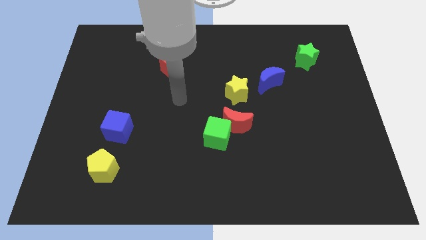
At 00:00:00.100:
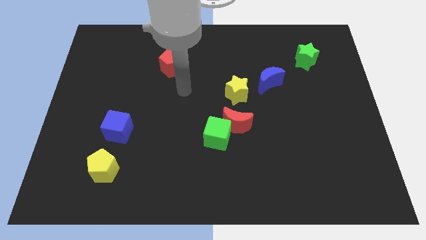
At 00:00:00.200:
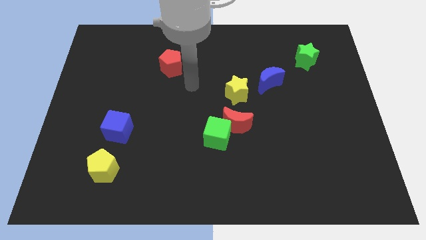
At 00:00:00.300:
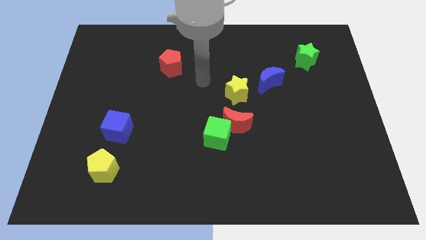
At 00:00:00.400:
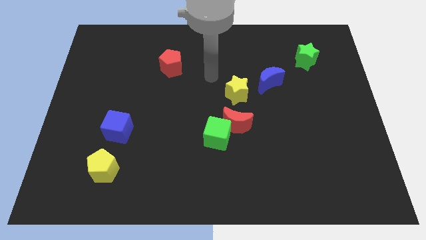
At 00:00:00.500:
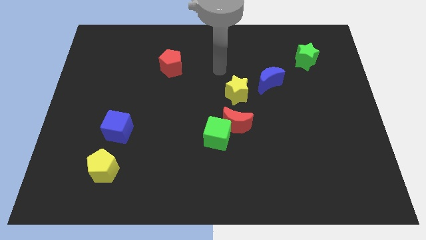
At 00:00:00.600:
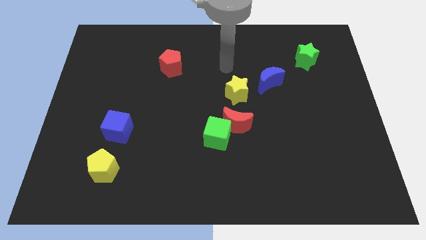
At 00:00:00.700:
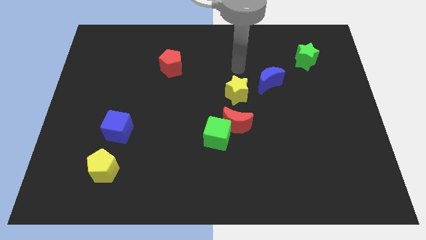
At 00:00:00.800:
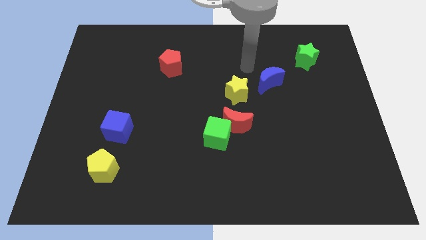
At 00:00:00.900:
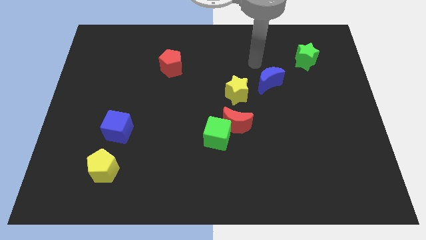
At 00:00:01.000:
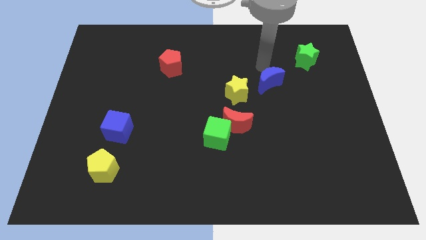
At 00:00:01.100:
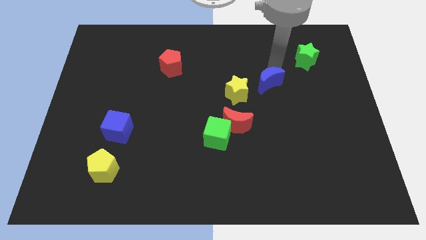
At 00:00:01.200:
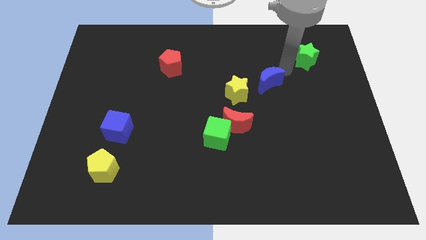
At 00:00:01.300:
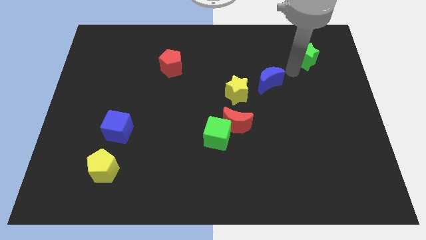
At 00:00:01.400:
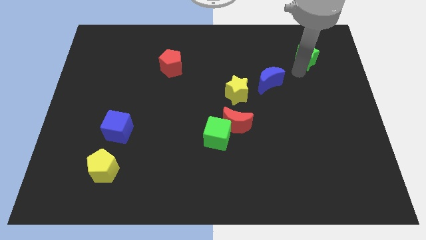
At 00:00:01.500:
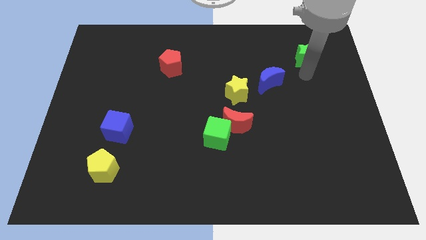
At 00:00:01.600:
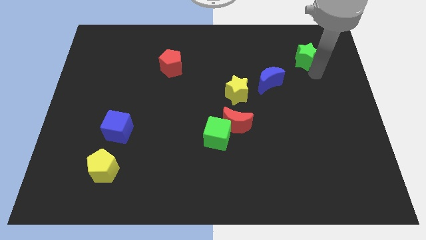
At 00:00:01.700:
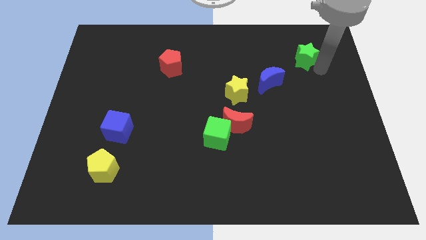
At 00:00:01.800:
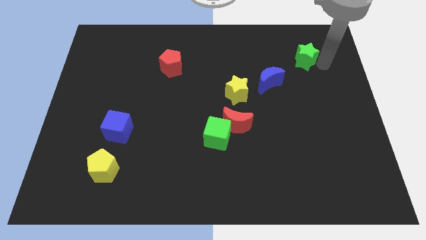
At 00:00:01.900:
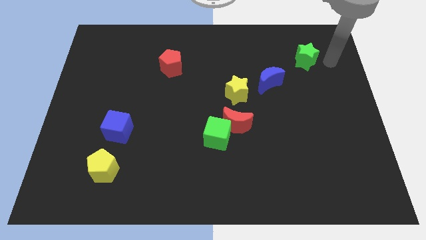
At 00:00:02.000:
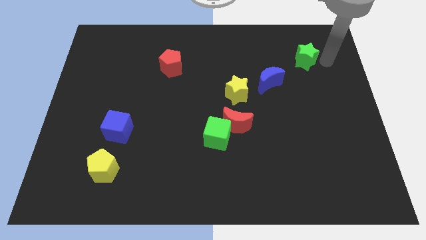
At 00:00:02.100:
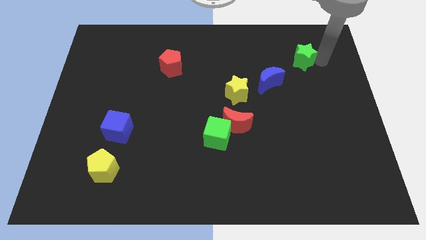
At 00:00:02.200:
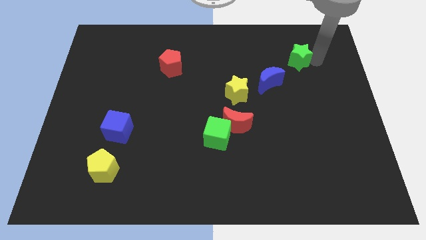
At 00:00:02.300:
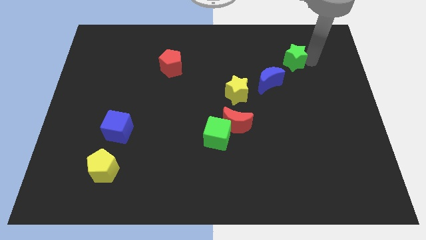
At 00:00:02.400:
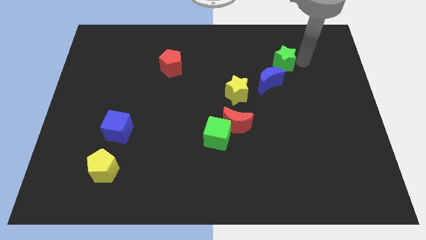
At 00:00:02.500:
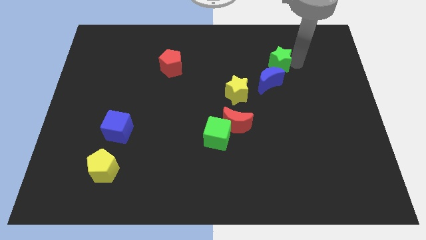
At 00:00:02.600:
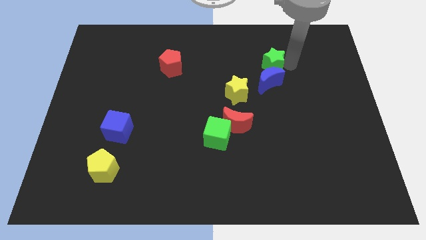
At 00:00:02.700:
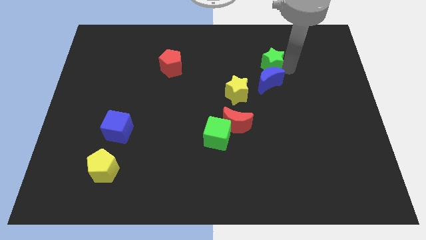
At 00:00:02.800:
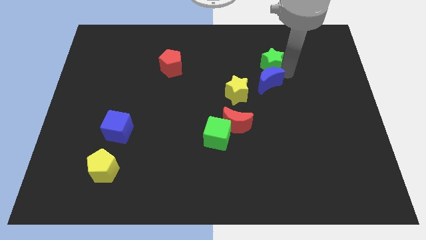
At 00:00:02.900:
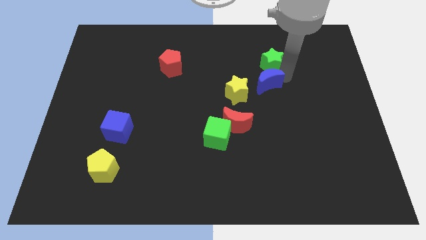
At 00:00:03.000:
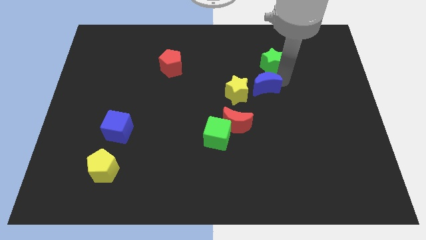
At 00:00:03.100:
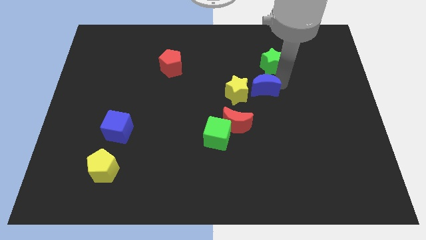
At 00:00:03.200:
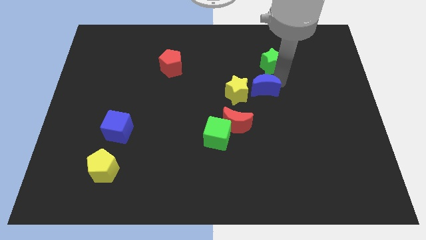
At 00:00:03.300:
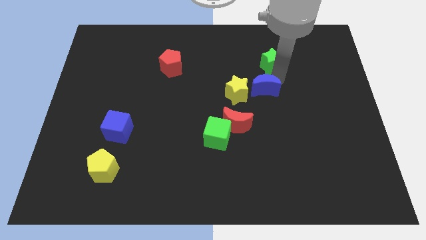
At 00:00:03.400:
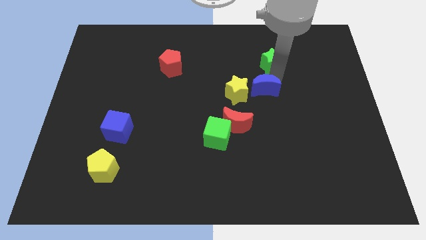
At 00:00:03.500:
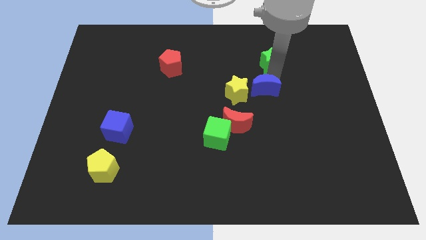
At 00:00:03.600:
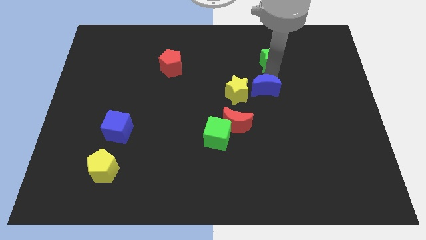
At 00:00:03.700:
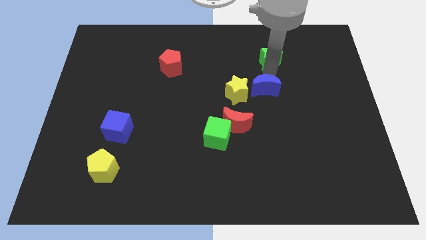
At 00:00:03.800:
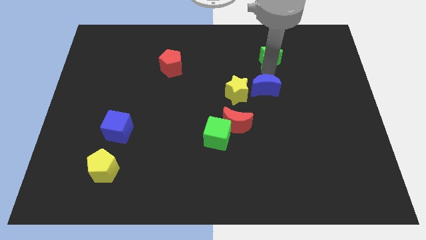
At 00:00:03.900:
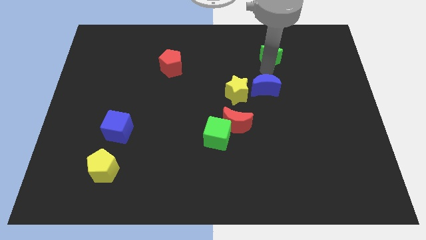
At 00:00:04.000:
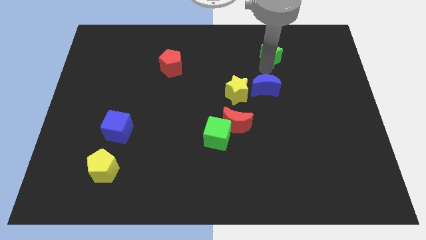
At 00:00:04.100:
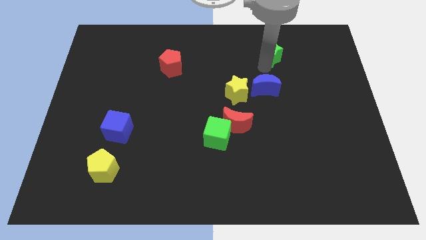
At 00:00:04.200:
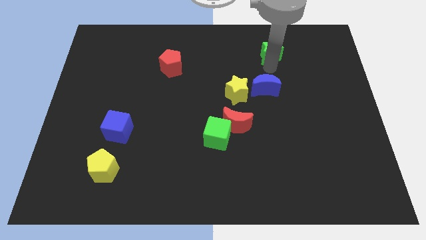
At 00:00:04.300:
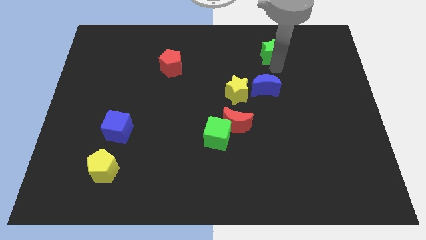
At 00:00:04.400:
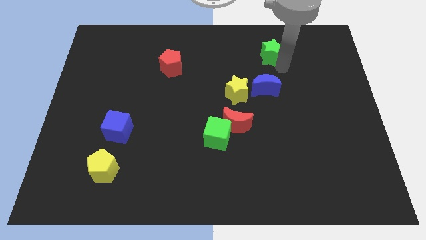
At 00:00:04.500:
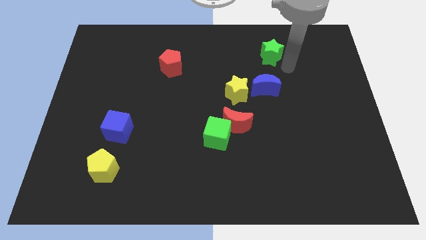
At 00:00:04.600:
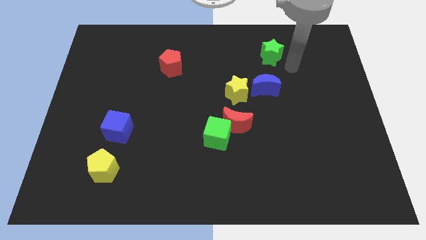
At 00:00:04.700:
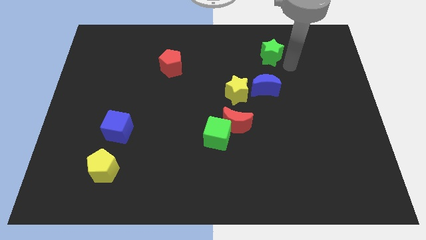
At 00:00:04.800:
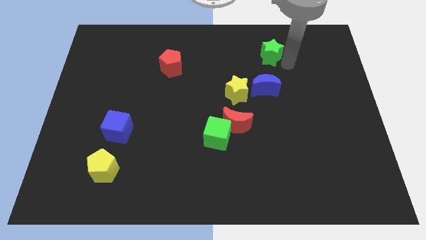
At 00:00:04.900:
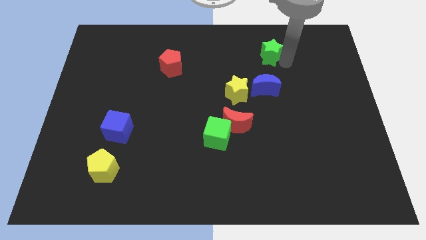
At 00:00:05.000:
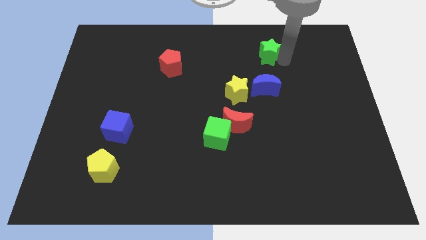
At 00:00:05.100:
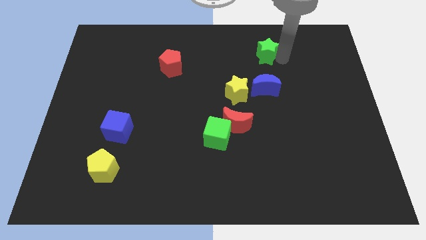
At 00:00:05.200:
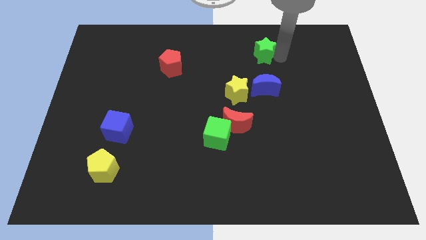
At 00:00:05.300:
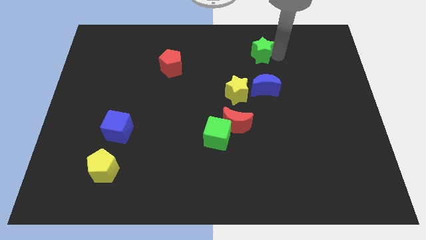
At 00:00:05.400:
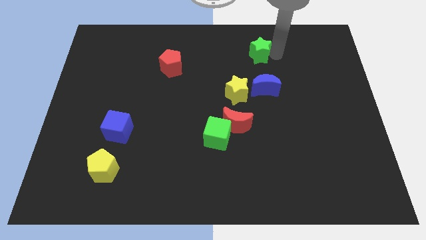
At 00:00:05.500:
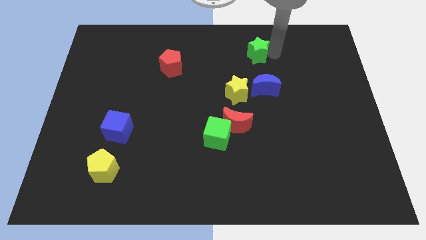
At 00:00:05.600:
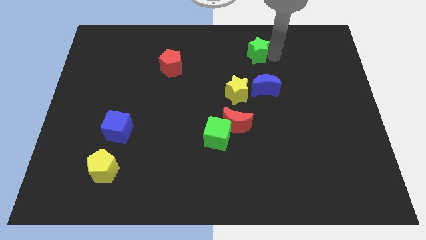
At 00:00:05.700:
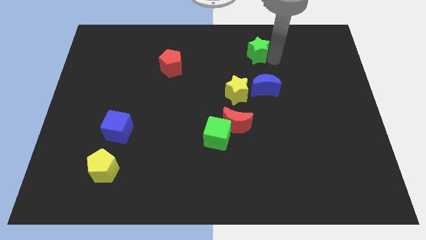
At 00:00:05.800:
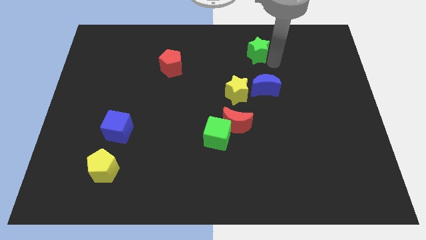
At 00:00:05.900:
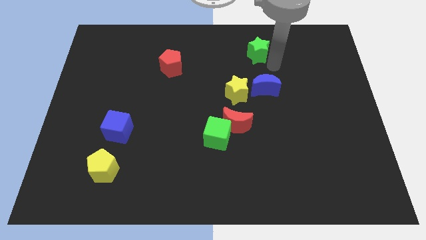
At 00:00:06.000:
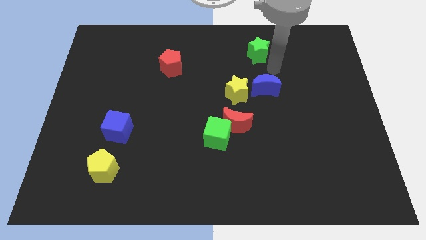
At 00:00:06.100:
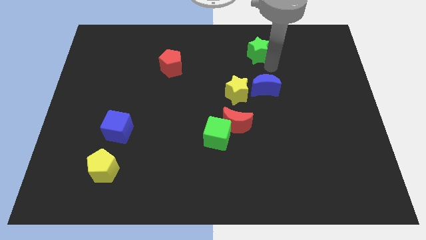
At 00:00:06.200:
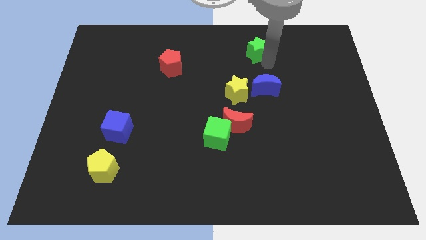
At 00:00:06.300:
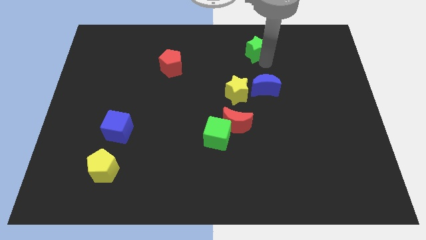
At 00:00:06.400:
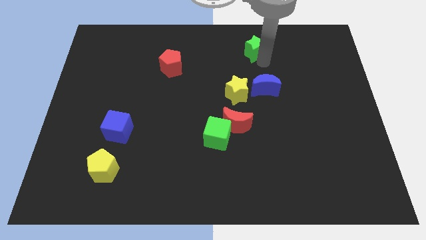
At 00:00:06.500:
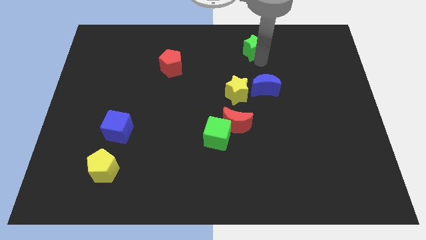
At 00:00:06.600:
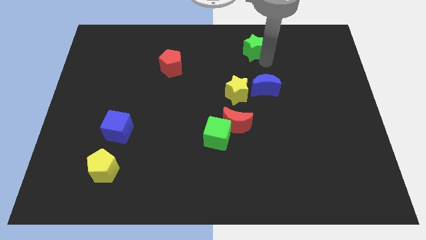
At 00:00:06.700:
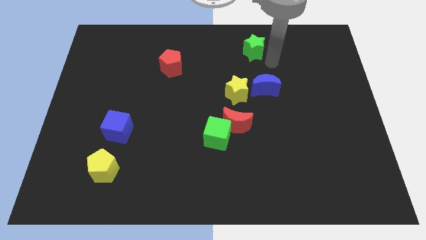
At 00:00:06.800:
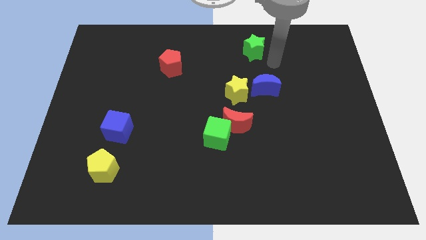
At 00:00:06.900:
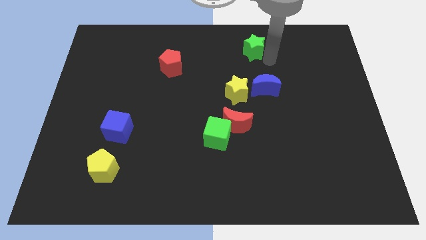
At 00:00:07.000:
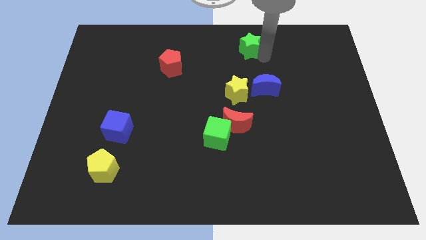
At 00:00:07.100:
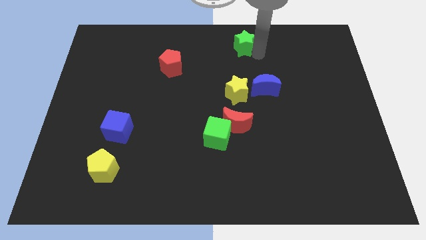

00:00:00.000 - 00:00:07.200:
put the green star to the top side

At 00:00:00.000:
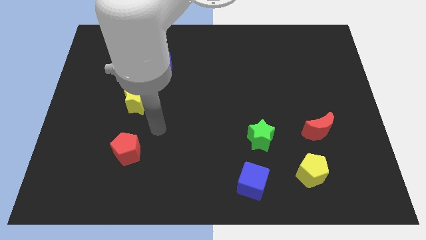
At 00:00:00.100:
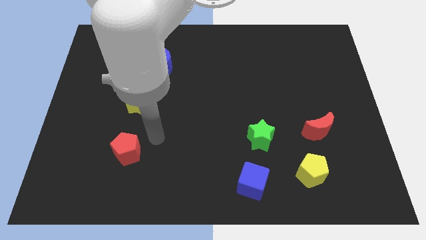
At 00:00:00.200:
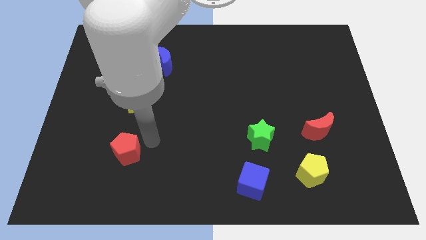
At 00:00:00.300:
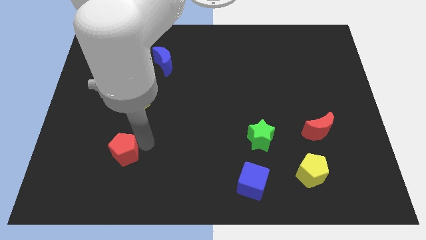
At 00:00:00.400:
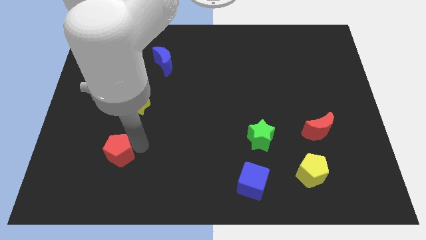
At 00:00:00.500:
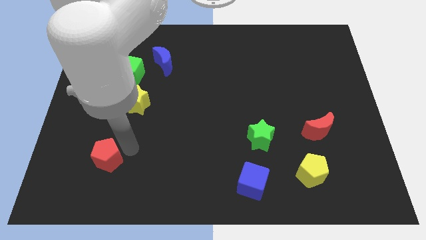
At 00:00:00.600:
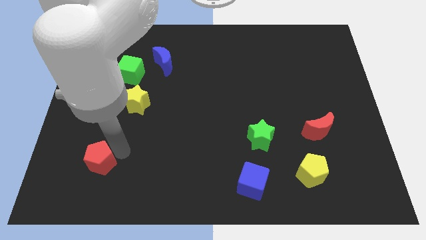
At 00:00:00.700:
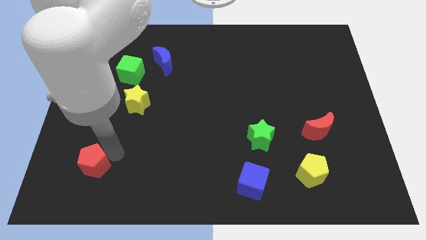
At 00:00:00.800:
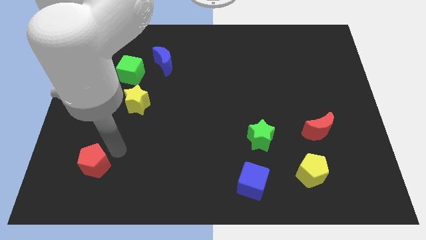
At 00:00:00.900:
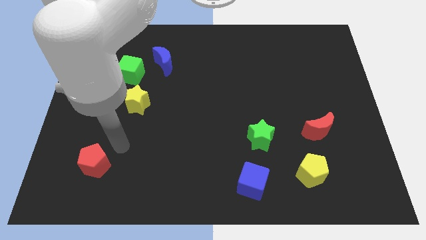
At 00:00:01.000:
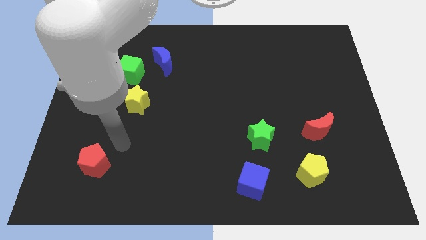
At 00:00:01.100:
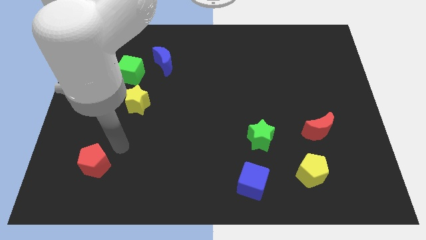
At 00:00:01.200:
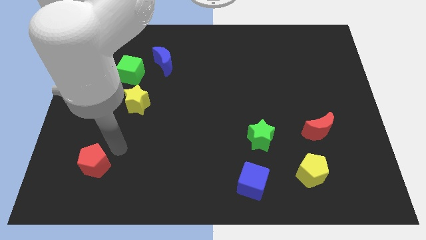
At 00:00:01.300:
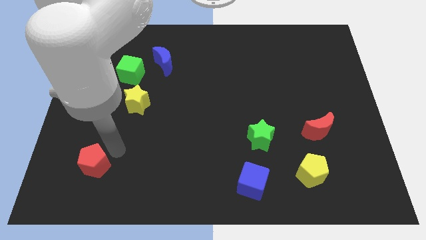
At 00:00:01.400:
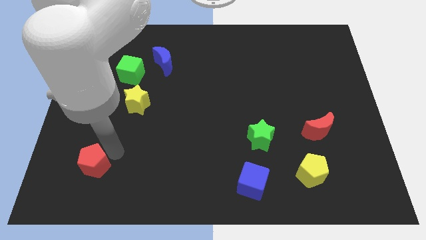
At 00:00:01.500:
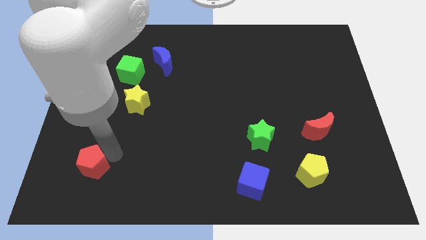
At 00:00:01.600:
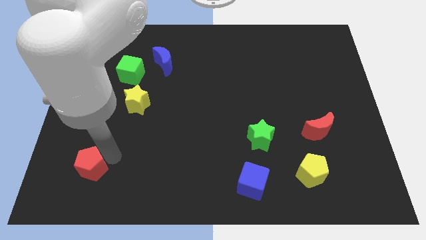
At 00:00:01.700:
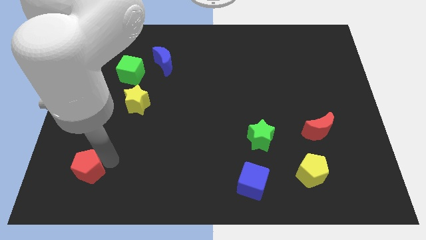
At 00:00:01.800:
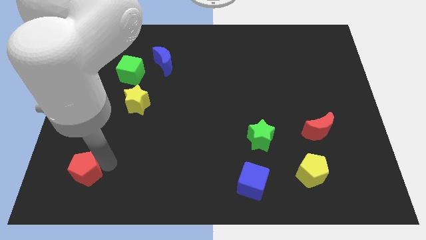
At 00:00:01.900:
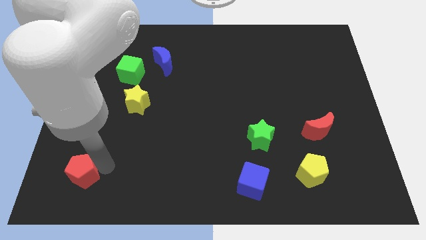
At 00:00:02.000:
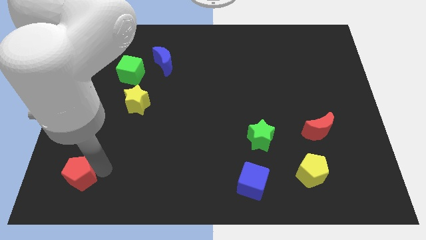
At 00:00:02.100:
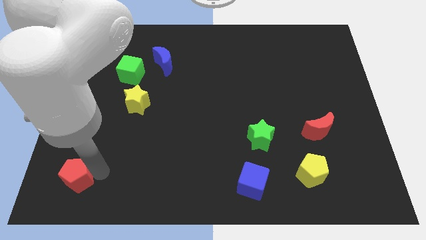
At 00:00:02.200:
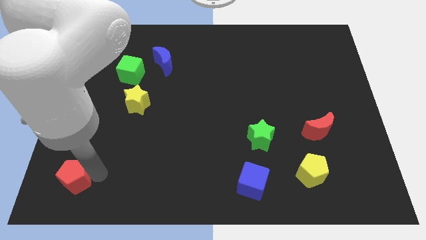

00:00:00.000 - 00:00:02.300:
move the red pentagon to the bottom left corner
